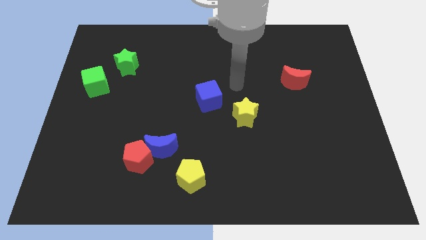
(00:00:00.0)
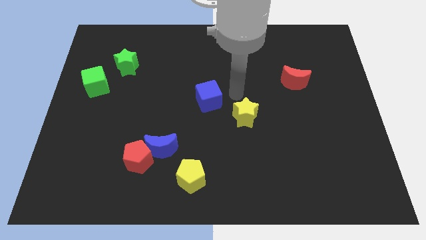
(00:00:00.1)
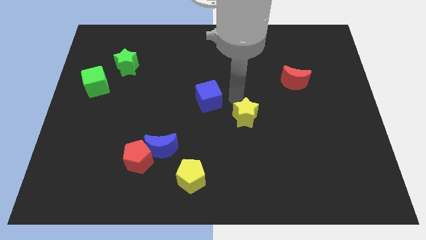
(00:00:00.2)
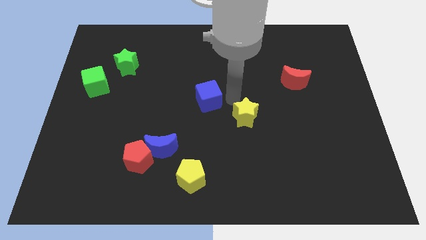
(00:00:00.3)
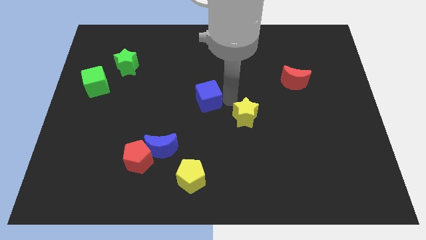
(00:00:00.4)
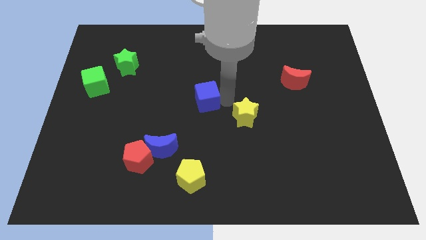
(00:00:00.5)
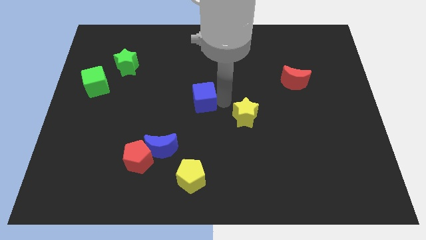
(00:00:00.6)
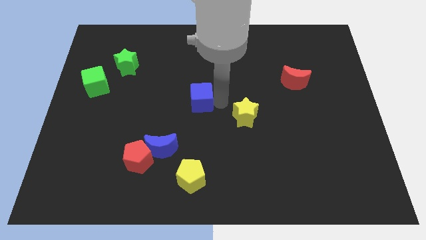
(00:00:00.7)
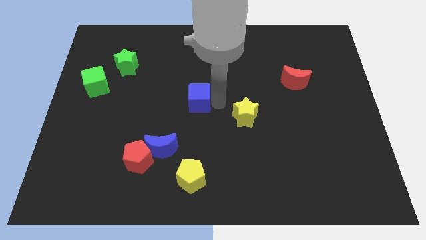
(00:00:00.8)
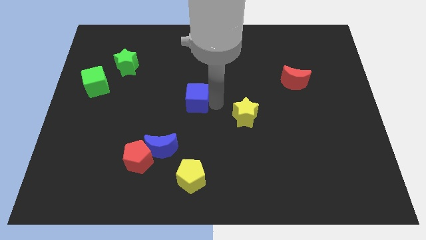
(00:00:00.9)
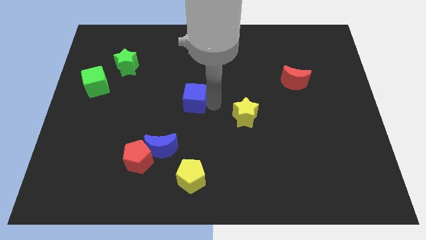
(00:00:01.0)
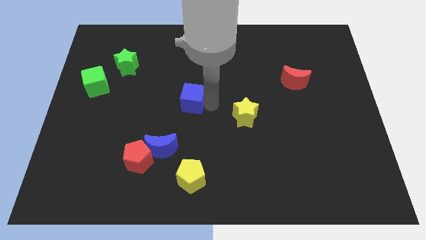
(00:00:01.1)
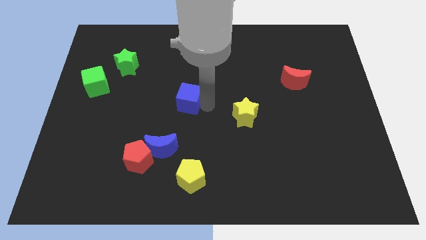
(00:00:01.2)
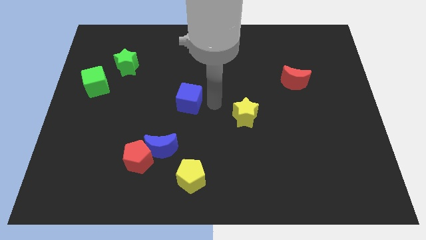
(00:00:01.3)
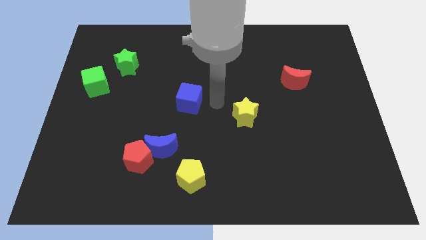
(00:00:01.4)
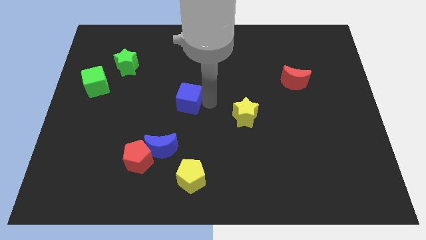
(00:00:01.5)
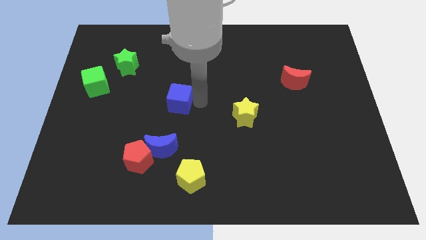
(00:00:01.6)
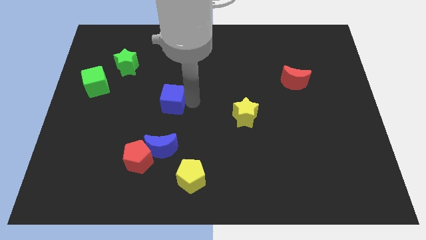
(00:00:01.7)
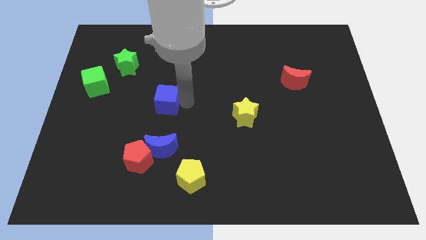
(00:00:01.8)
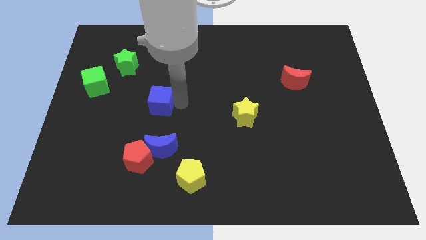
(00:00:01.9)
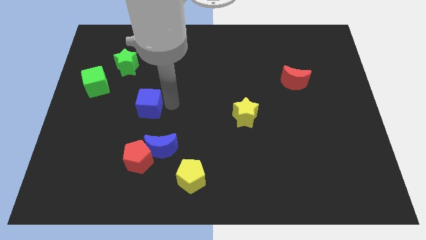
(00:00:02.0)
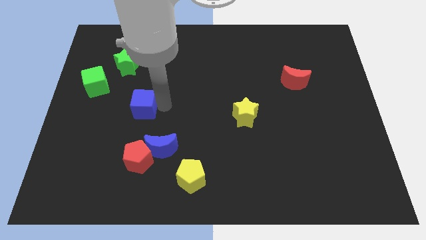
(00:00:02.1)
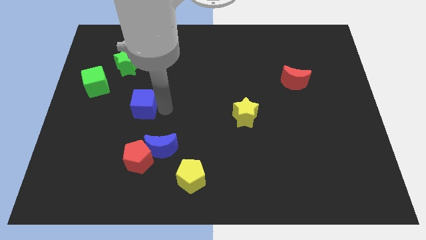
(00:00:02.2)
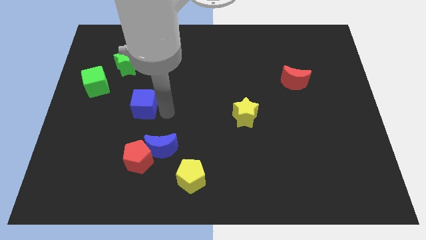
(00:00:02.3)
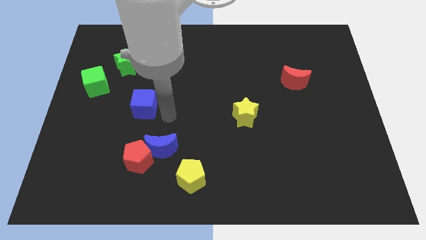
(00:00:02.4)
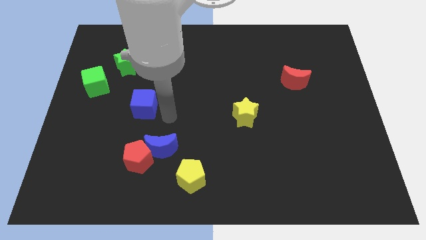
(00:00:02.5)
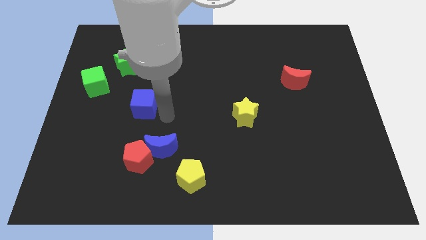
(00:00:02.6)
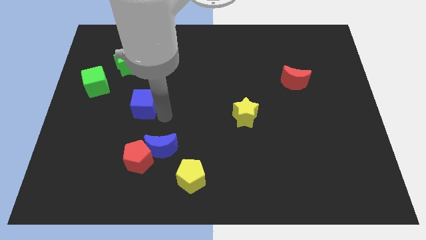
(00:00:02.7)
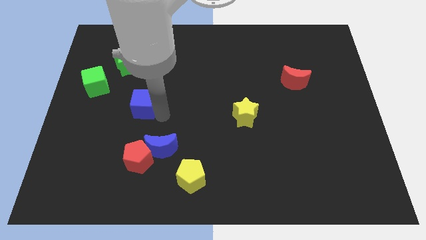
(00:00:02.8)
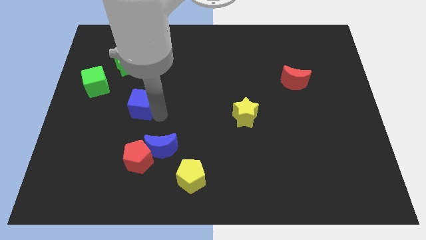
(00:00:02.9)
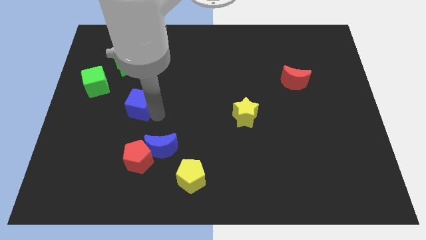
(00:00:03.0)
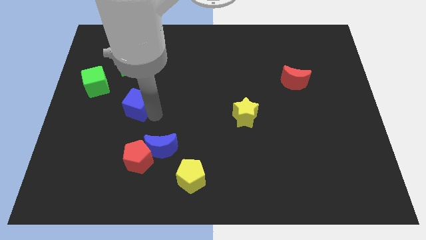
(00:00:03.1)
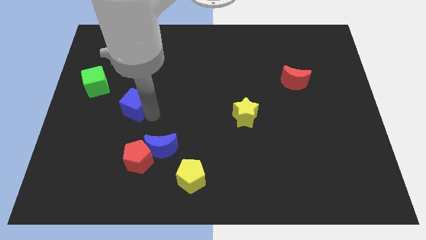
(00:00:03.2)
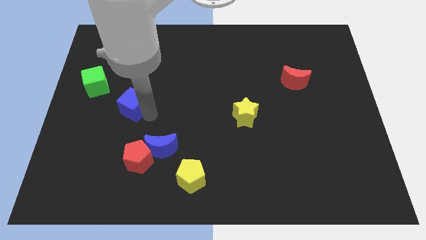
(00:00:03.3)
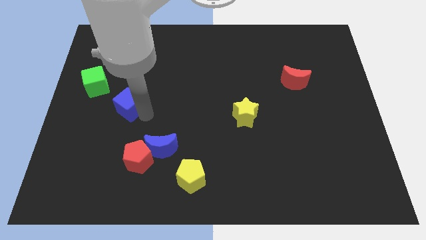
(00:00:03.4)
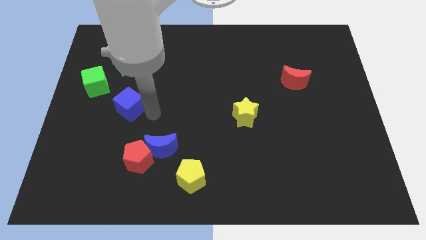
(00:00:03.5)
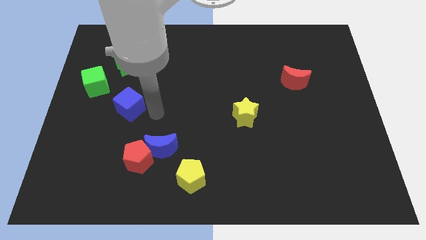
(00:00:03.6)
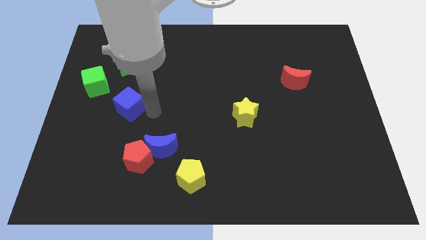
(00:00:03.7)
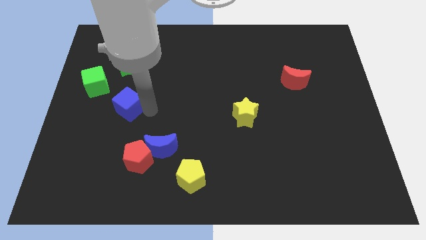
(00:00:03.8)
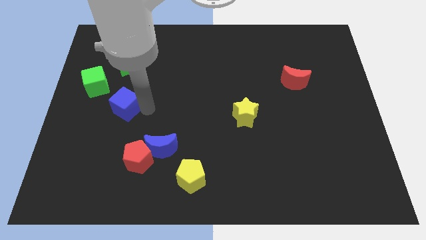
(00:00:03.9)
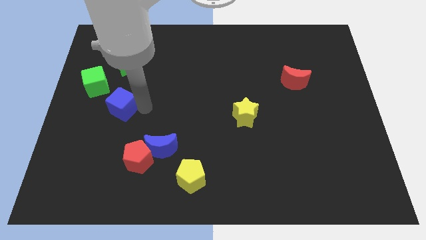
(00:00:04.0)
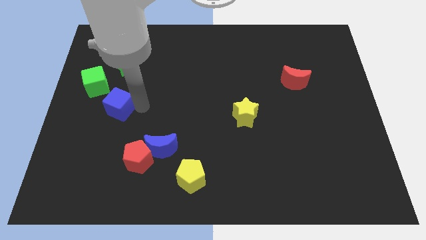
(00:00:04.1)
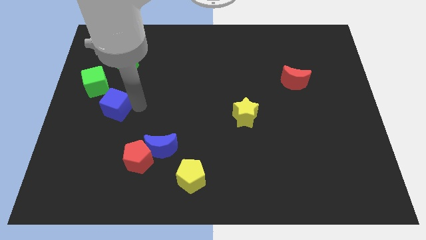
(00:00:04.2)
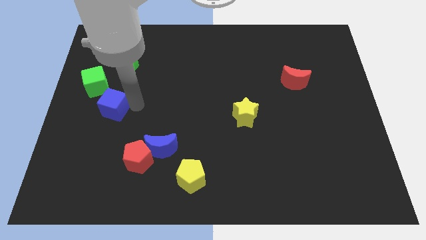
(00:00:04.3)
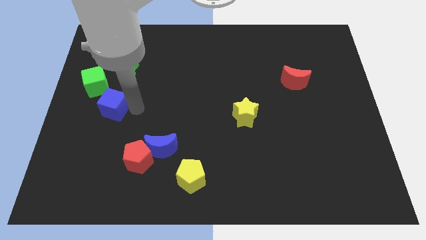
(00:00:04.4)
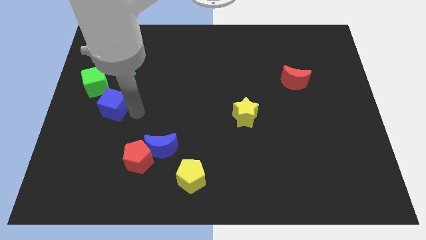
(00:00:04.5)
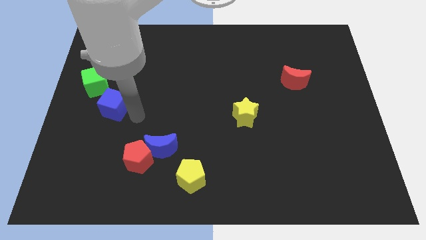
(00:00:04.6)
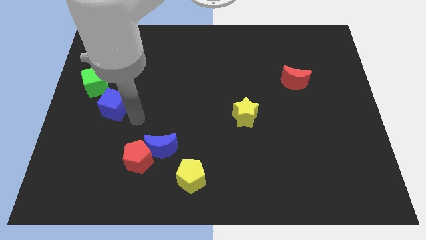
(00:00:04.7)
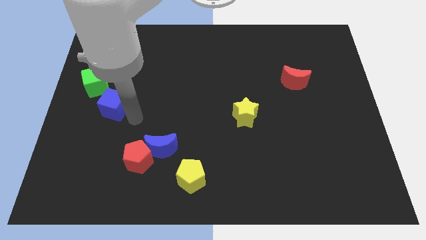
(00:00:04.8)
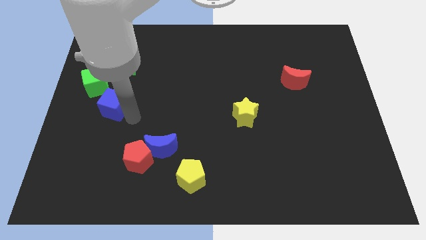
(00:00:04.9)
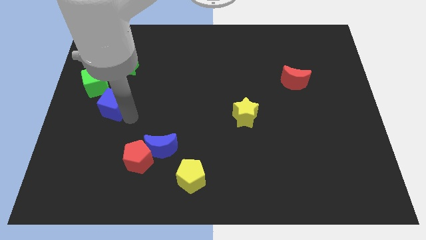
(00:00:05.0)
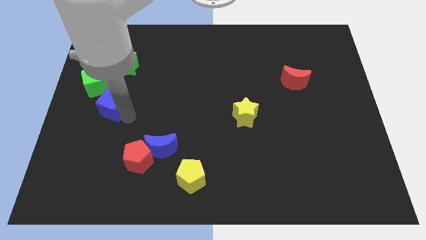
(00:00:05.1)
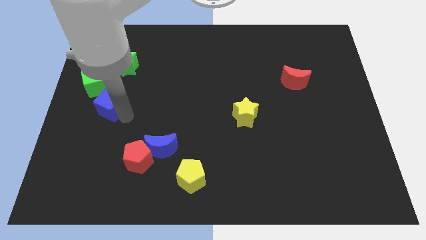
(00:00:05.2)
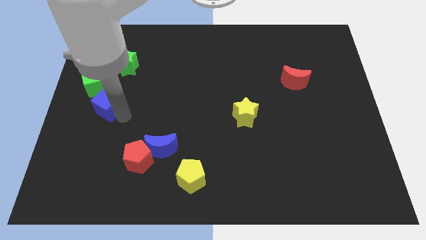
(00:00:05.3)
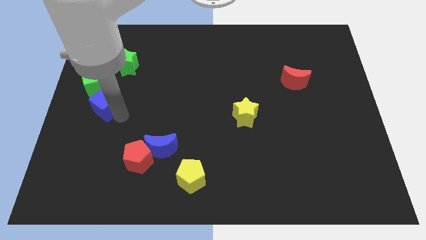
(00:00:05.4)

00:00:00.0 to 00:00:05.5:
put the blue cube to the left side of the board

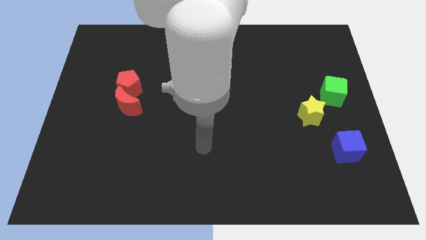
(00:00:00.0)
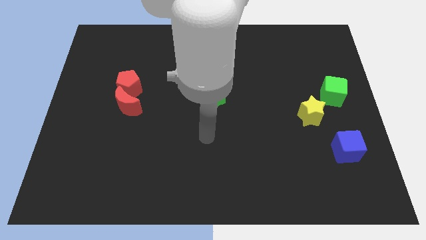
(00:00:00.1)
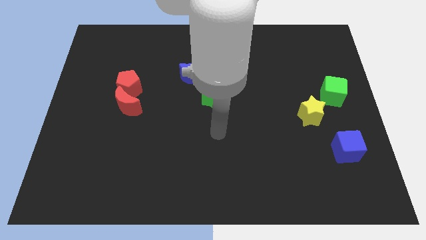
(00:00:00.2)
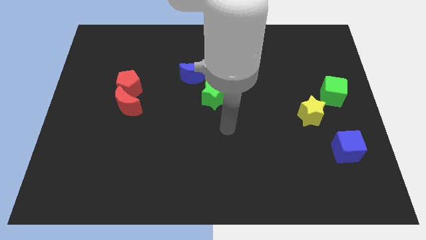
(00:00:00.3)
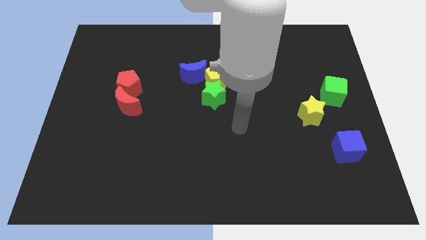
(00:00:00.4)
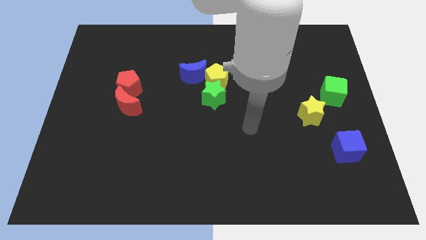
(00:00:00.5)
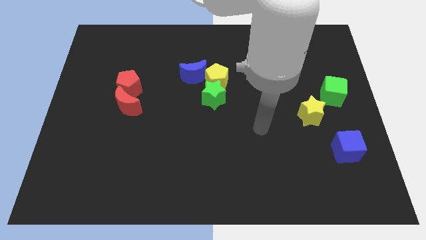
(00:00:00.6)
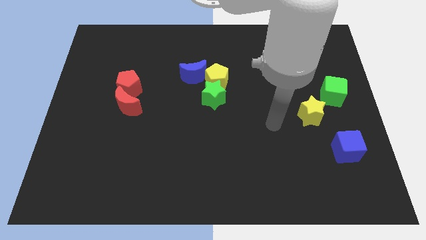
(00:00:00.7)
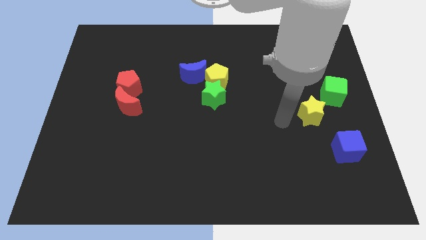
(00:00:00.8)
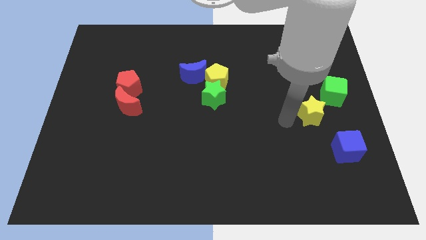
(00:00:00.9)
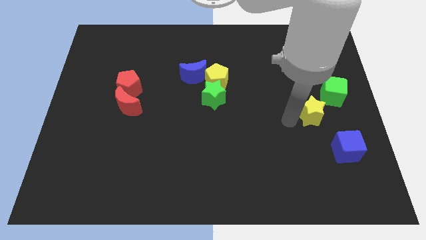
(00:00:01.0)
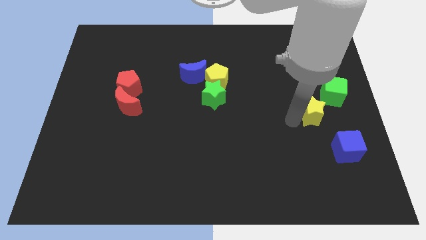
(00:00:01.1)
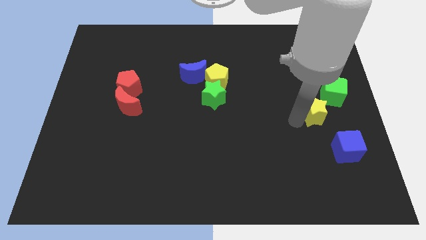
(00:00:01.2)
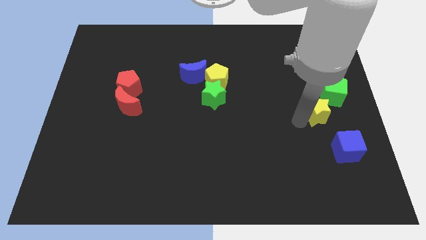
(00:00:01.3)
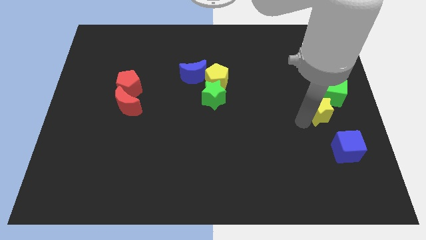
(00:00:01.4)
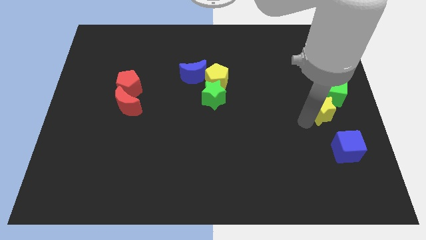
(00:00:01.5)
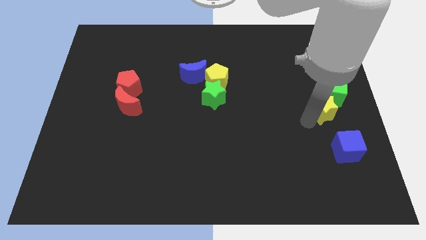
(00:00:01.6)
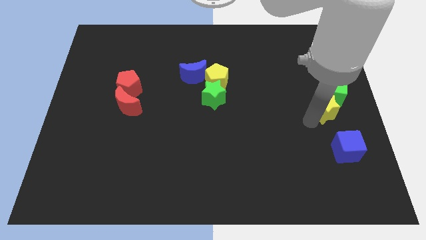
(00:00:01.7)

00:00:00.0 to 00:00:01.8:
move the yellow star to the right side of the board
